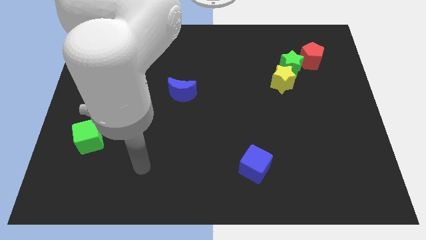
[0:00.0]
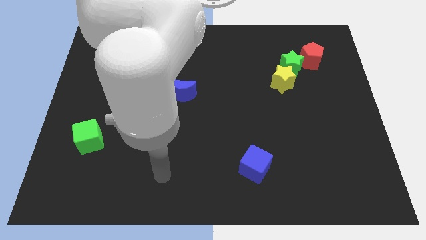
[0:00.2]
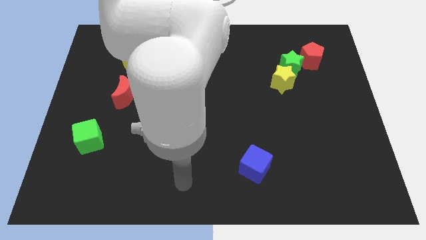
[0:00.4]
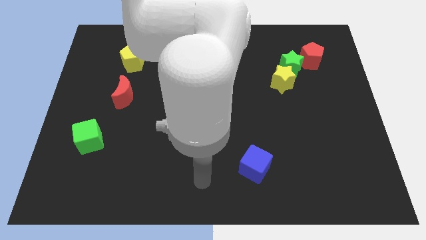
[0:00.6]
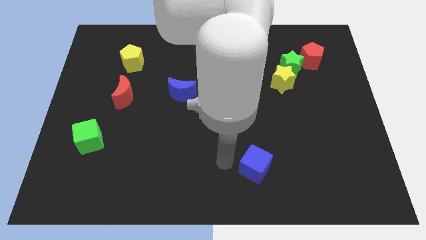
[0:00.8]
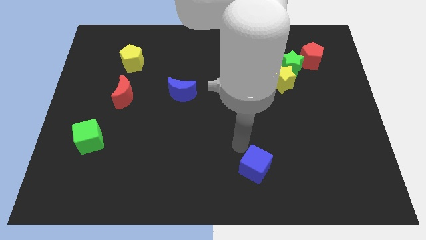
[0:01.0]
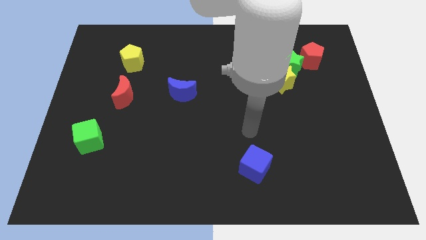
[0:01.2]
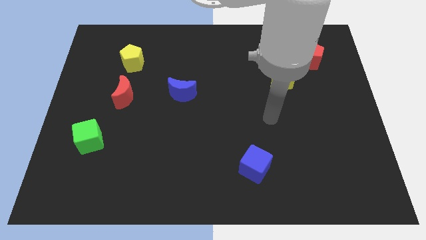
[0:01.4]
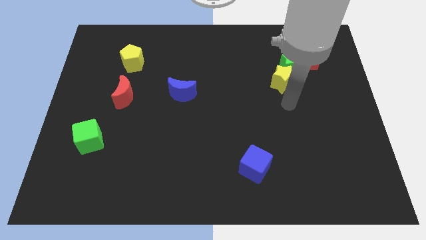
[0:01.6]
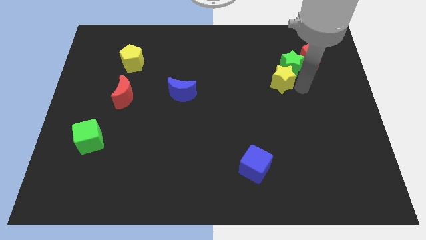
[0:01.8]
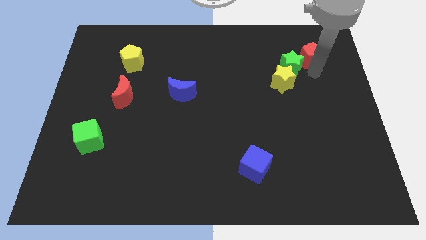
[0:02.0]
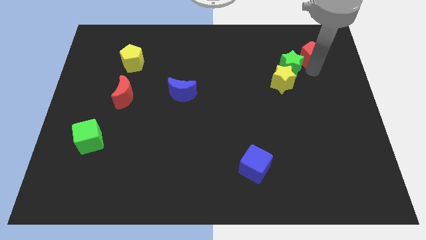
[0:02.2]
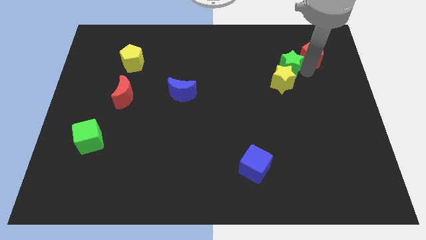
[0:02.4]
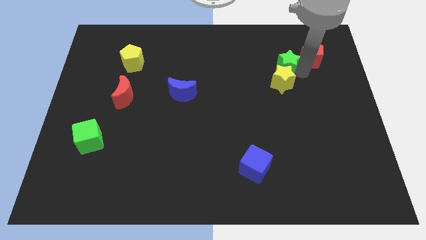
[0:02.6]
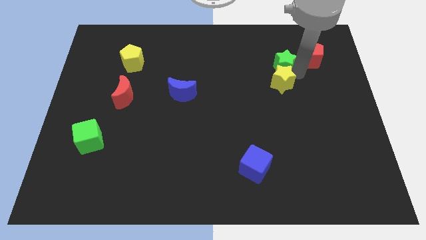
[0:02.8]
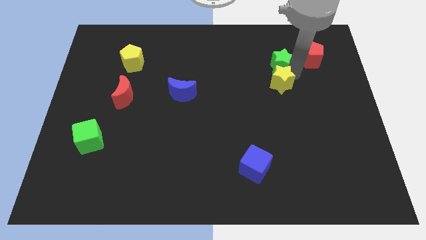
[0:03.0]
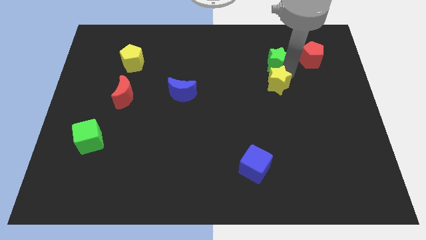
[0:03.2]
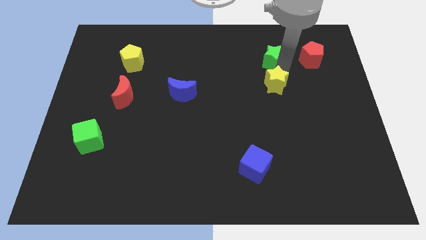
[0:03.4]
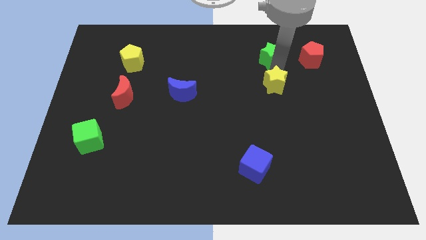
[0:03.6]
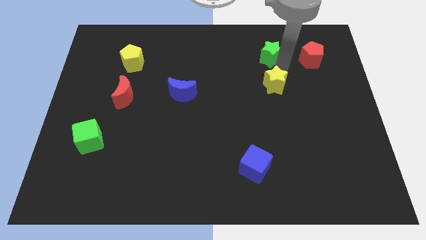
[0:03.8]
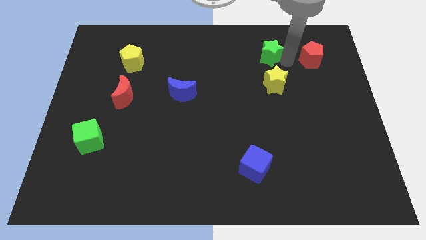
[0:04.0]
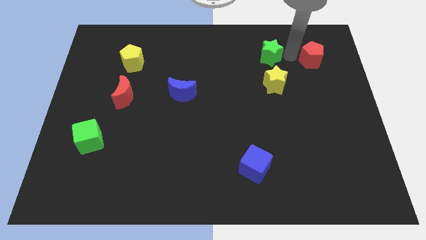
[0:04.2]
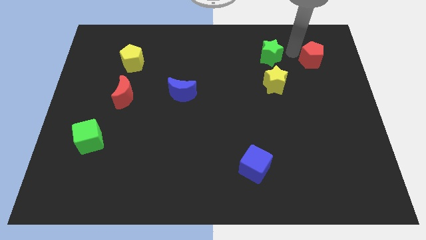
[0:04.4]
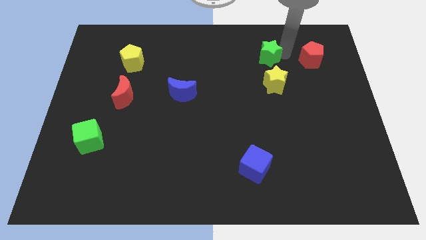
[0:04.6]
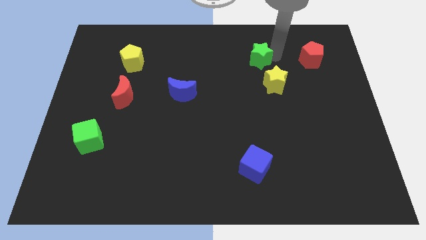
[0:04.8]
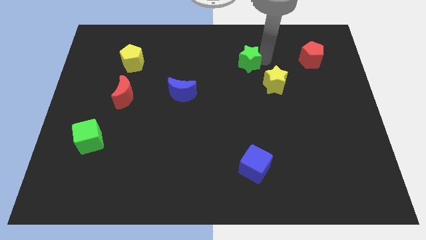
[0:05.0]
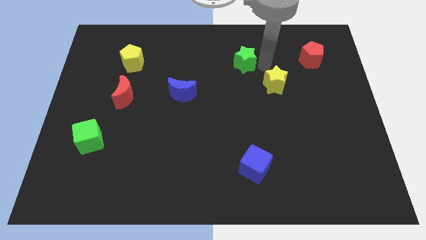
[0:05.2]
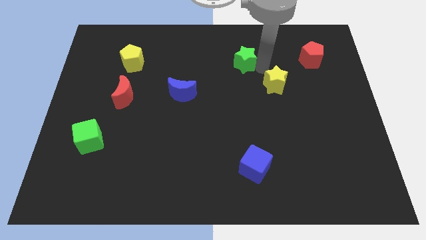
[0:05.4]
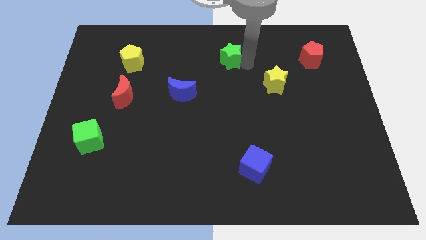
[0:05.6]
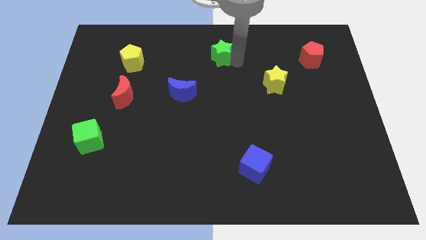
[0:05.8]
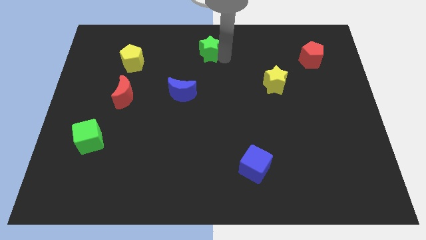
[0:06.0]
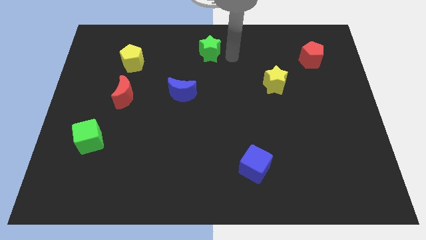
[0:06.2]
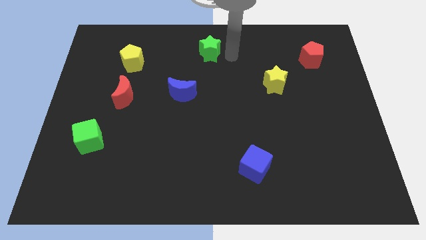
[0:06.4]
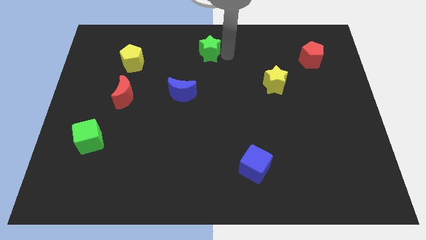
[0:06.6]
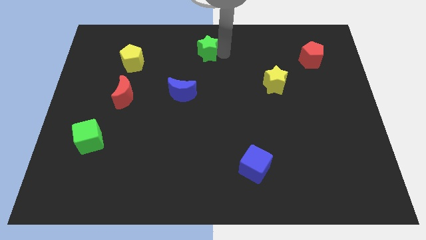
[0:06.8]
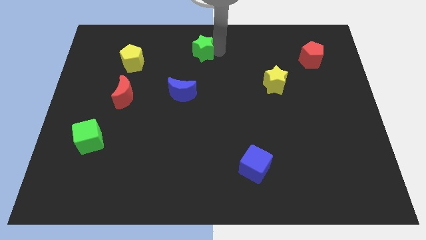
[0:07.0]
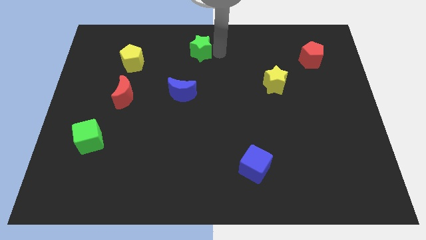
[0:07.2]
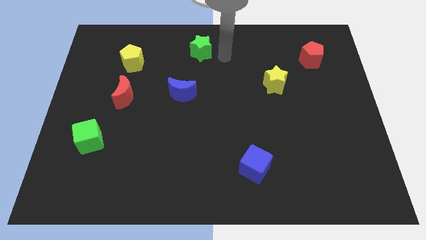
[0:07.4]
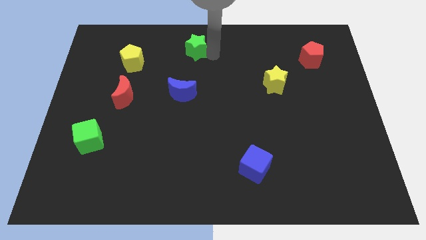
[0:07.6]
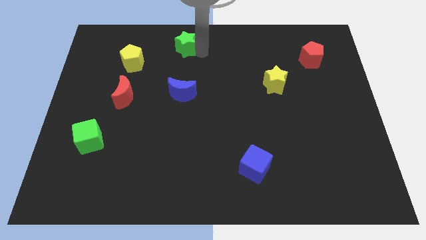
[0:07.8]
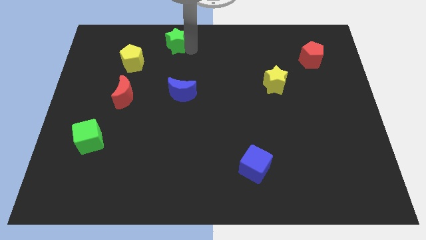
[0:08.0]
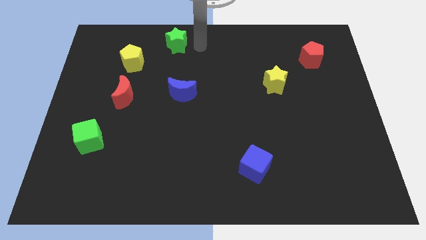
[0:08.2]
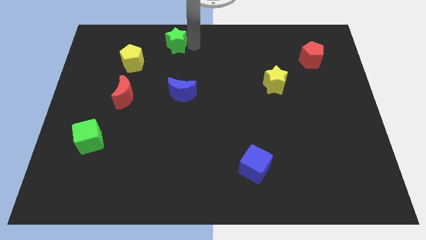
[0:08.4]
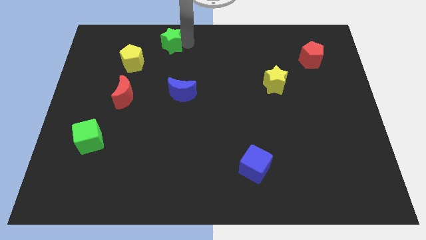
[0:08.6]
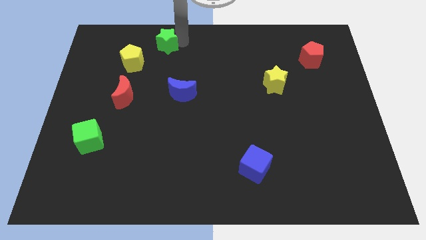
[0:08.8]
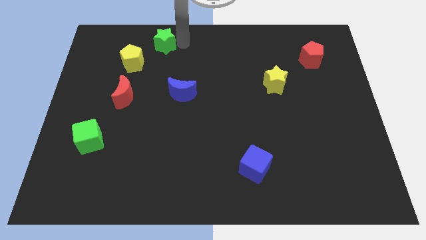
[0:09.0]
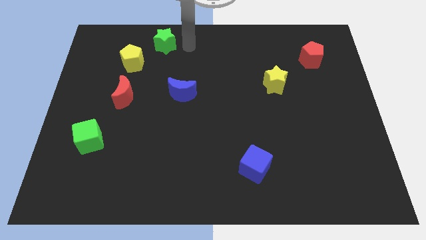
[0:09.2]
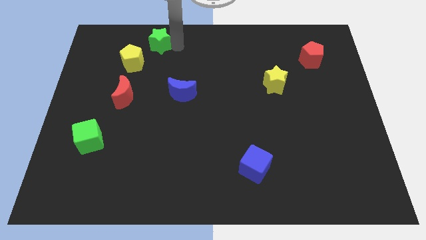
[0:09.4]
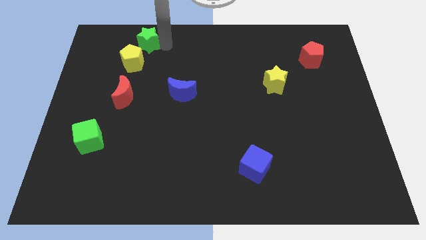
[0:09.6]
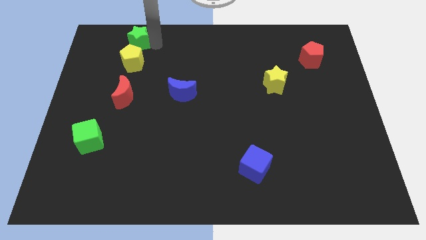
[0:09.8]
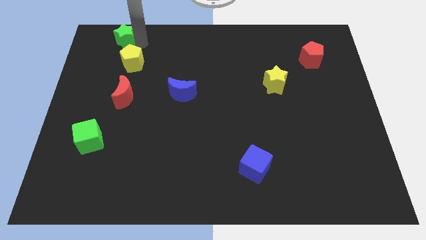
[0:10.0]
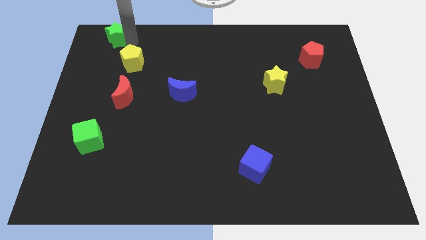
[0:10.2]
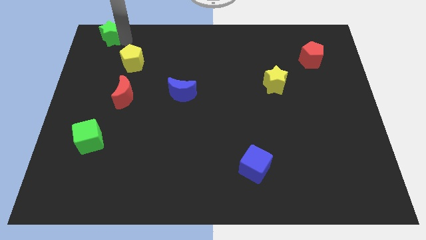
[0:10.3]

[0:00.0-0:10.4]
move the green star to the top left of the board

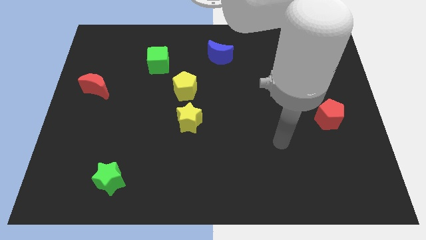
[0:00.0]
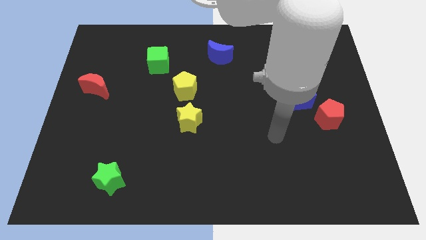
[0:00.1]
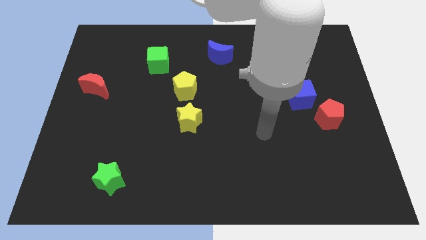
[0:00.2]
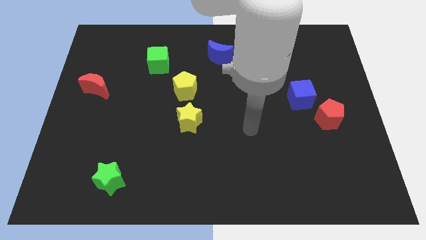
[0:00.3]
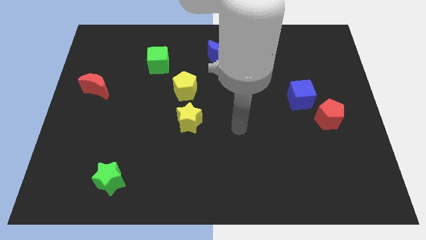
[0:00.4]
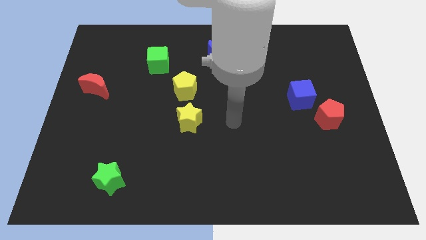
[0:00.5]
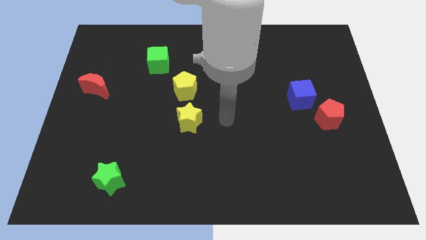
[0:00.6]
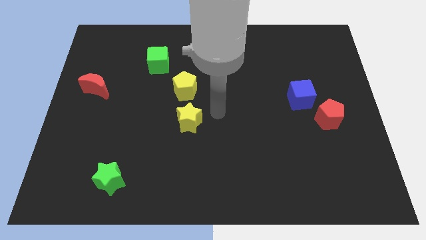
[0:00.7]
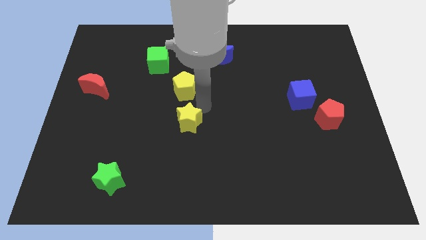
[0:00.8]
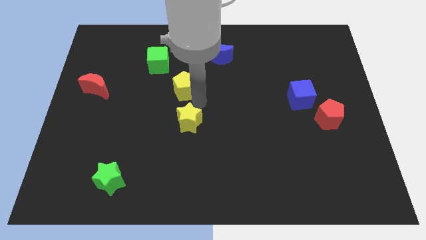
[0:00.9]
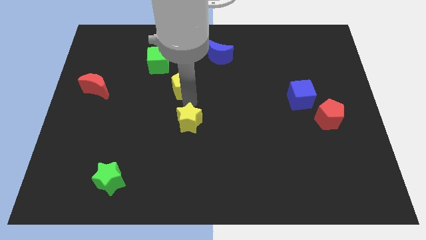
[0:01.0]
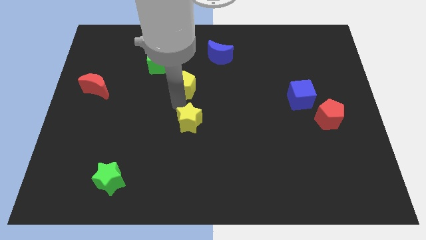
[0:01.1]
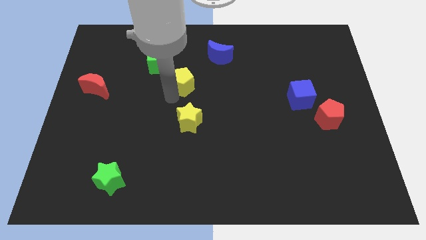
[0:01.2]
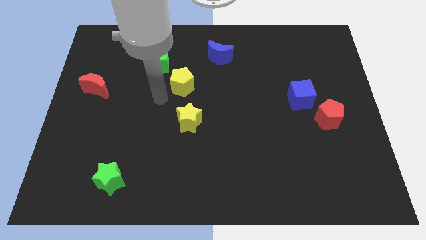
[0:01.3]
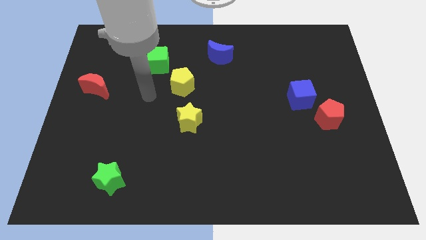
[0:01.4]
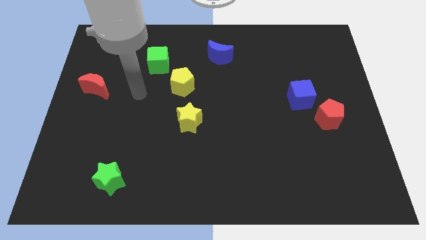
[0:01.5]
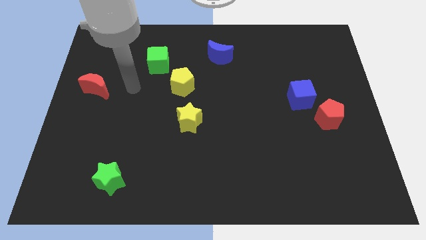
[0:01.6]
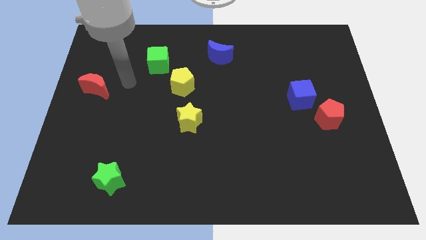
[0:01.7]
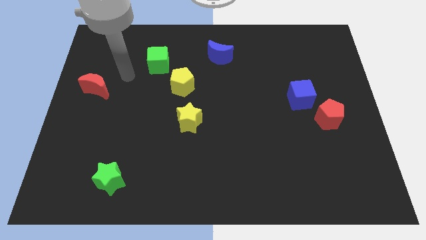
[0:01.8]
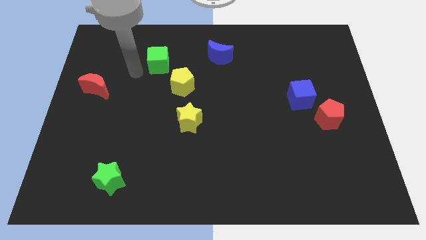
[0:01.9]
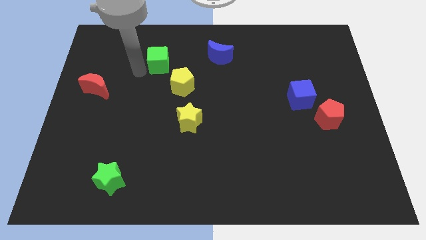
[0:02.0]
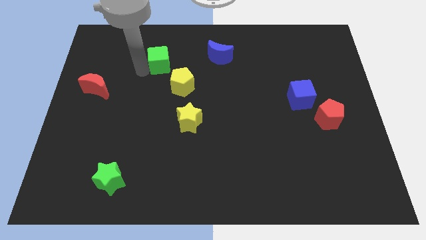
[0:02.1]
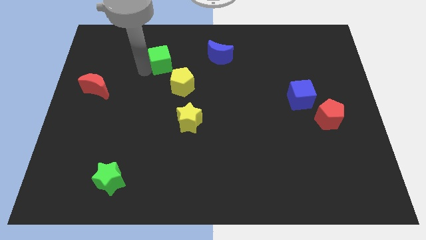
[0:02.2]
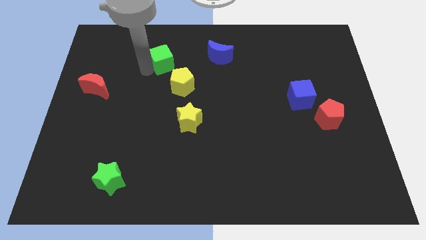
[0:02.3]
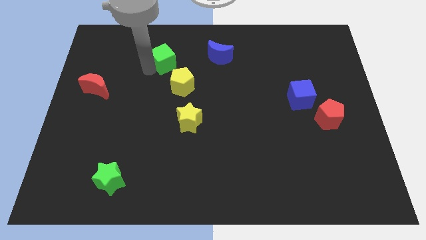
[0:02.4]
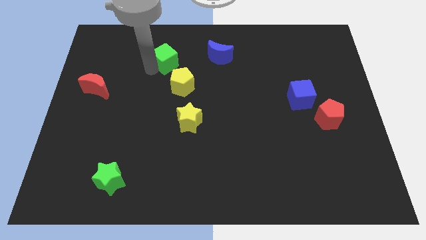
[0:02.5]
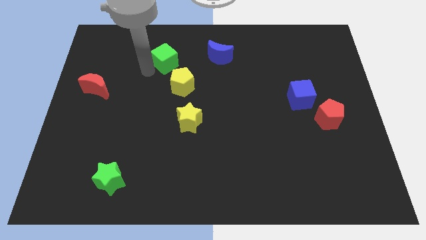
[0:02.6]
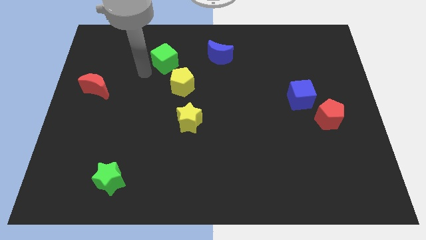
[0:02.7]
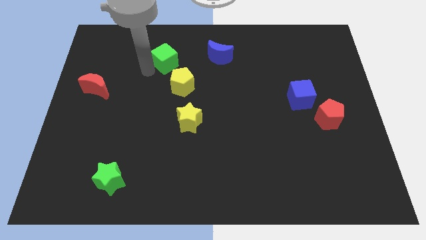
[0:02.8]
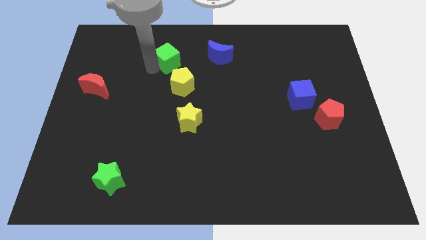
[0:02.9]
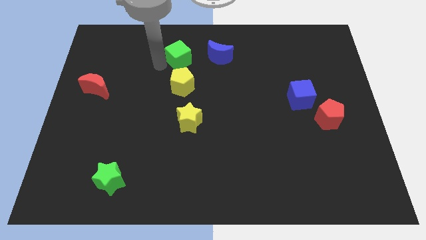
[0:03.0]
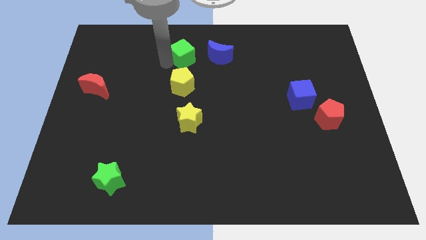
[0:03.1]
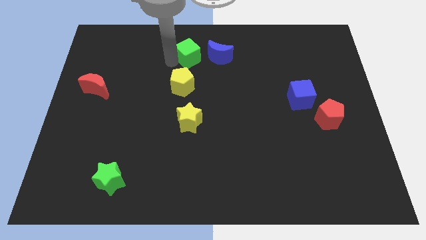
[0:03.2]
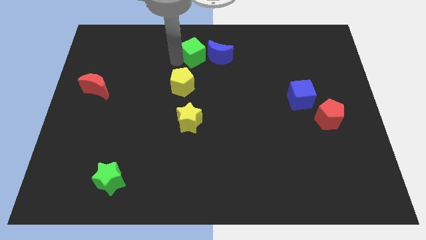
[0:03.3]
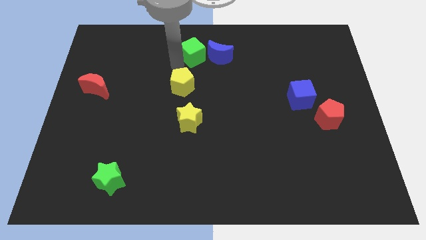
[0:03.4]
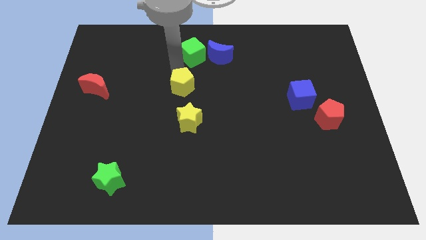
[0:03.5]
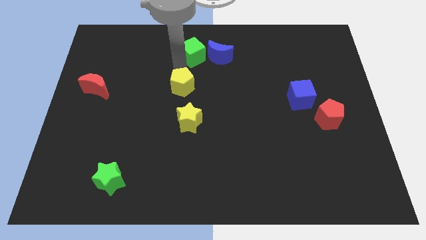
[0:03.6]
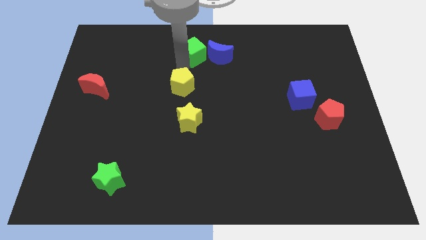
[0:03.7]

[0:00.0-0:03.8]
put the green cube to the top
